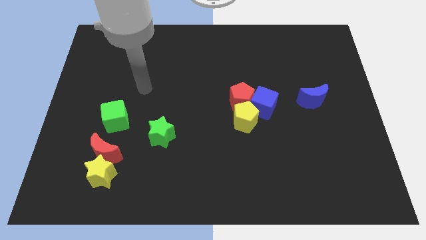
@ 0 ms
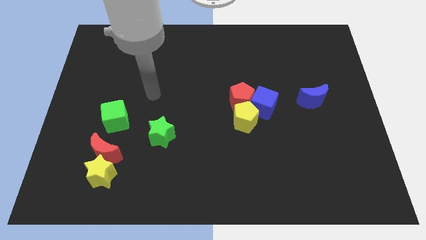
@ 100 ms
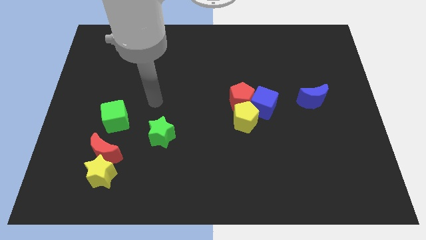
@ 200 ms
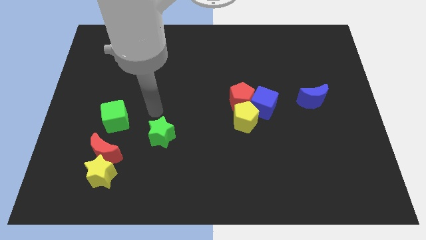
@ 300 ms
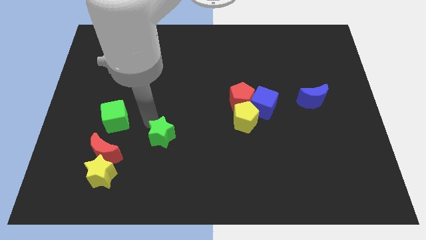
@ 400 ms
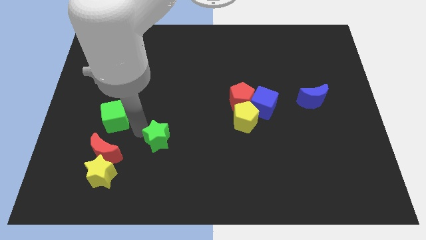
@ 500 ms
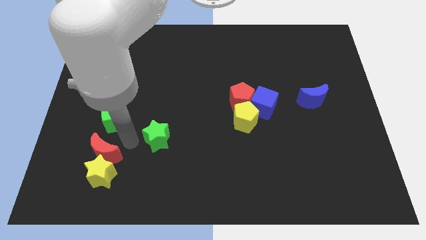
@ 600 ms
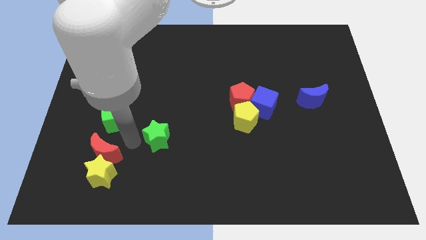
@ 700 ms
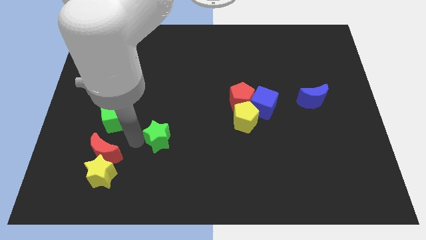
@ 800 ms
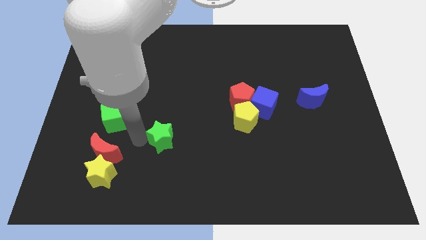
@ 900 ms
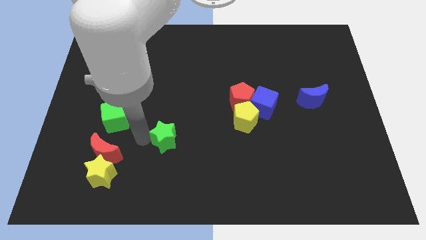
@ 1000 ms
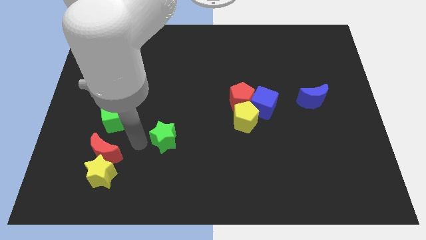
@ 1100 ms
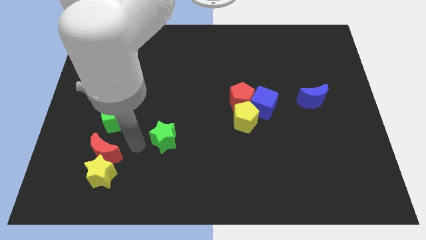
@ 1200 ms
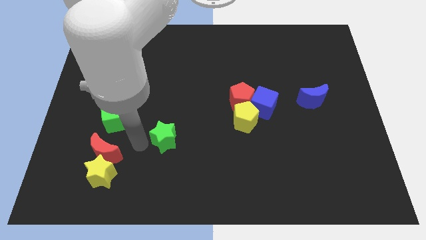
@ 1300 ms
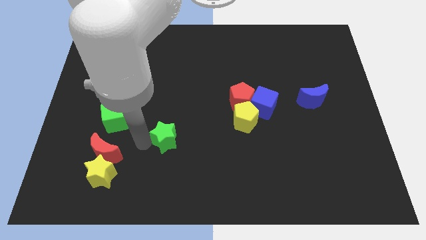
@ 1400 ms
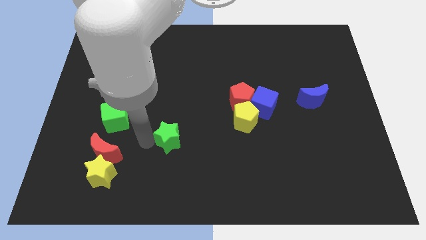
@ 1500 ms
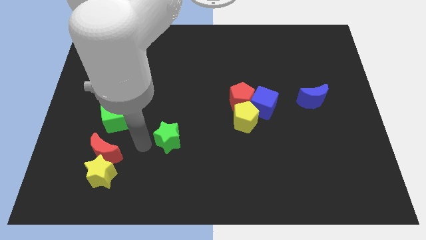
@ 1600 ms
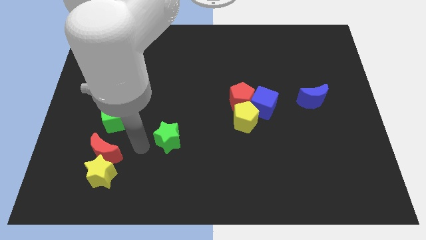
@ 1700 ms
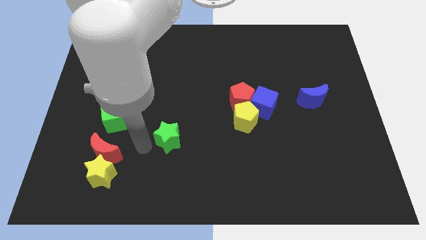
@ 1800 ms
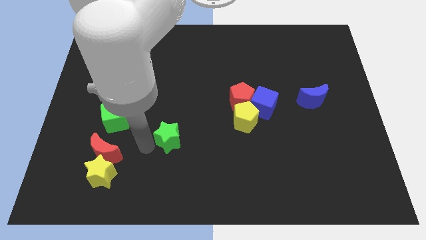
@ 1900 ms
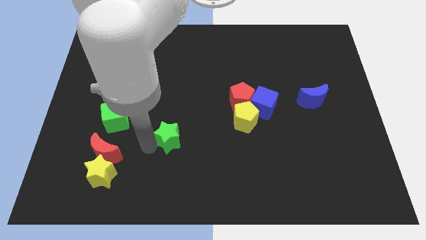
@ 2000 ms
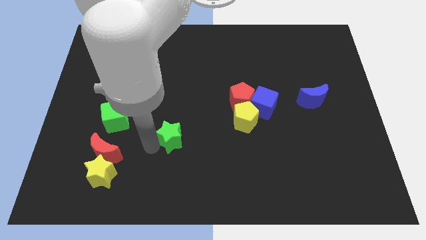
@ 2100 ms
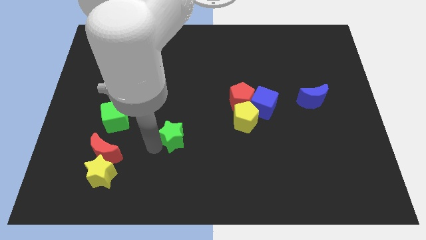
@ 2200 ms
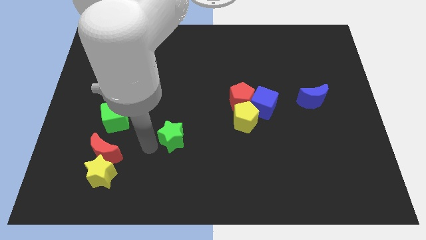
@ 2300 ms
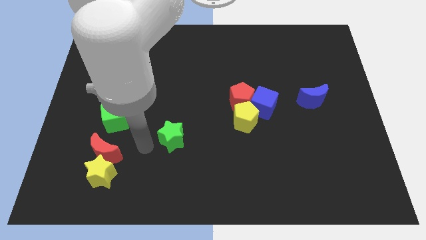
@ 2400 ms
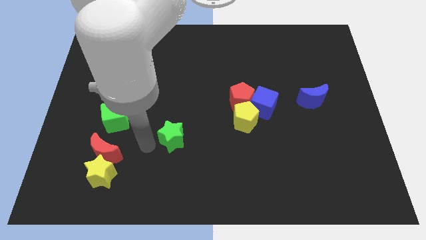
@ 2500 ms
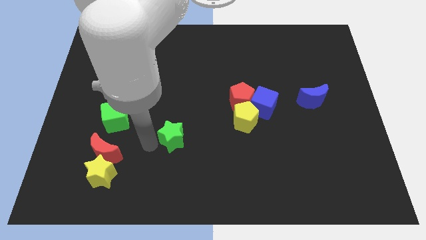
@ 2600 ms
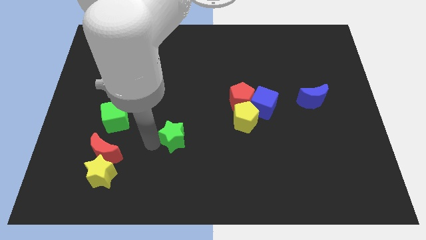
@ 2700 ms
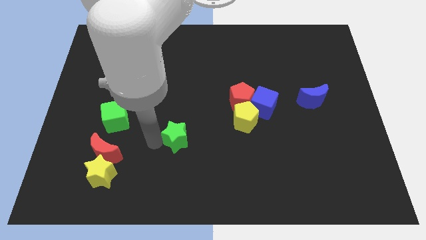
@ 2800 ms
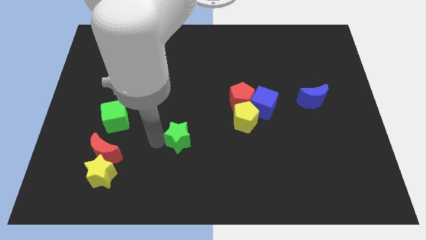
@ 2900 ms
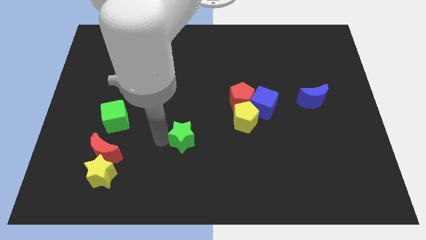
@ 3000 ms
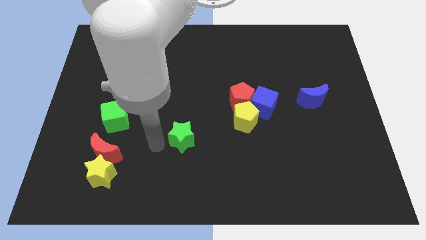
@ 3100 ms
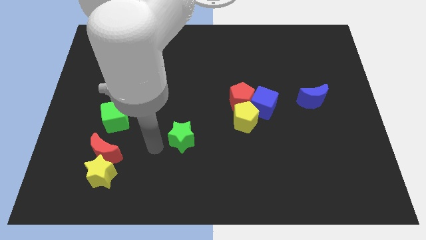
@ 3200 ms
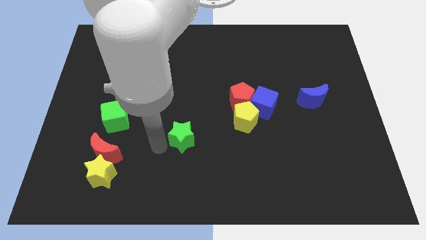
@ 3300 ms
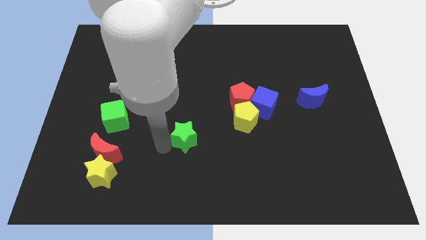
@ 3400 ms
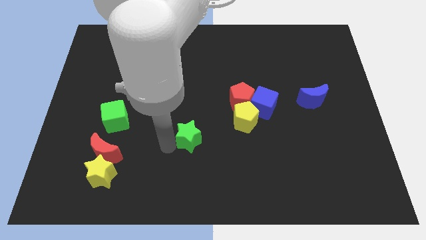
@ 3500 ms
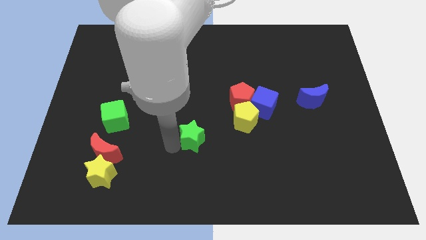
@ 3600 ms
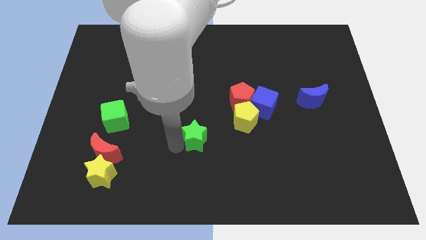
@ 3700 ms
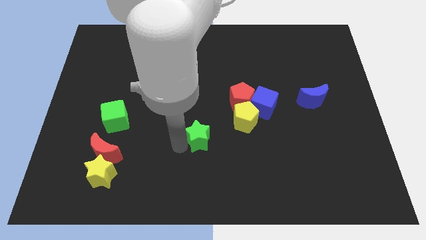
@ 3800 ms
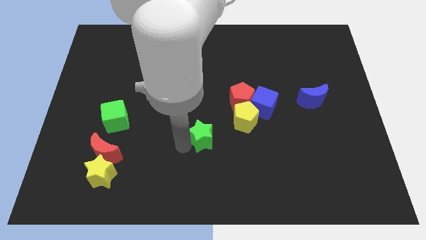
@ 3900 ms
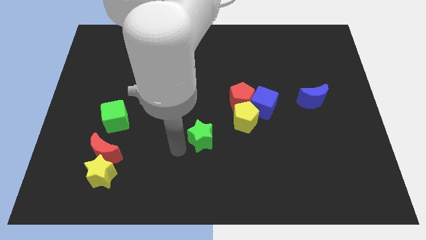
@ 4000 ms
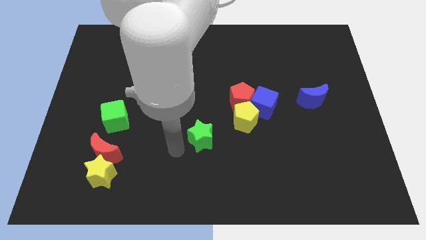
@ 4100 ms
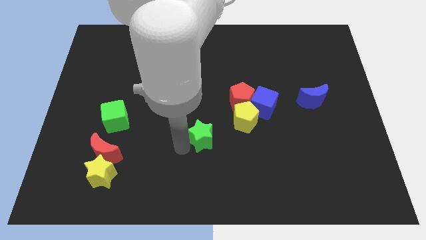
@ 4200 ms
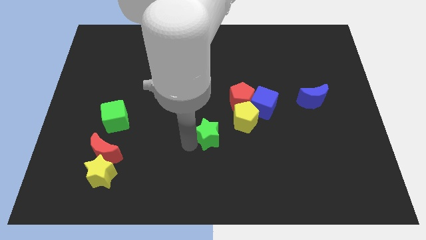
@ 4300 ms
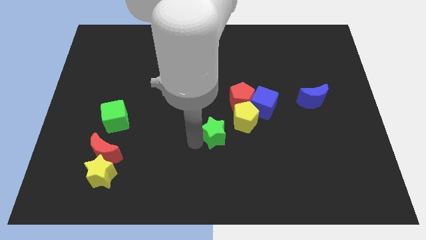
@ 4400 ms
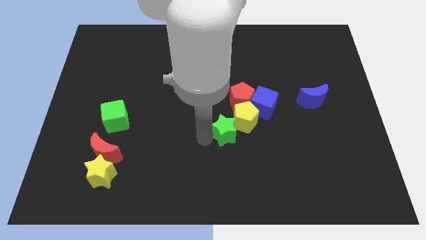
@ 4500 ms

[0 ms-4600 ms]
move the green star towards the yellow pentagon

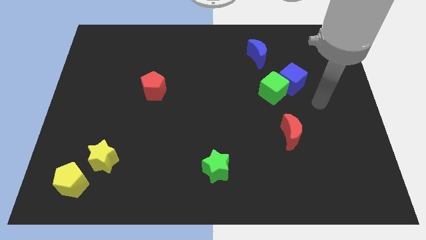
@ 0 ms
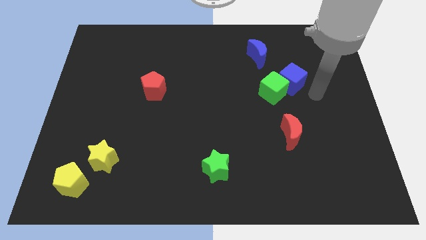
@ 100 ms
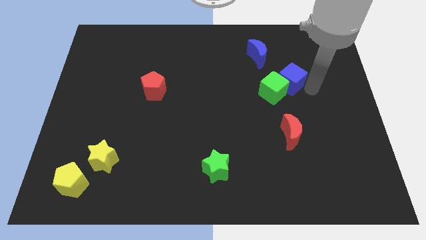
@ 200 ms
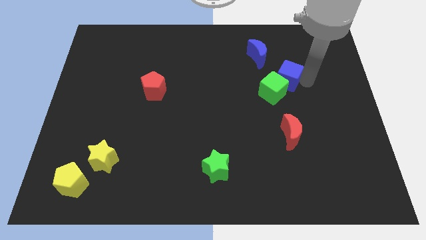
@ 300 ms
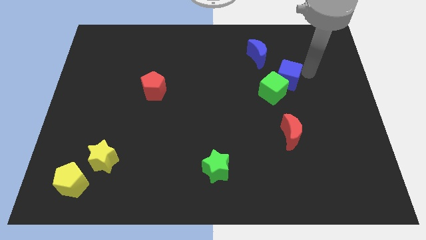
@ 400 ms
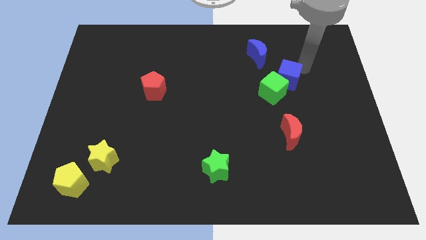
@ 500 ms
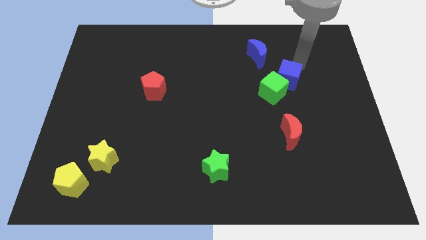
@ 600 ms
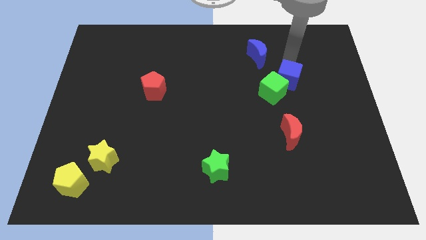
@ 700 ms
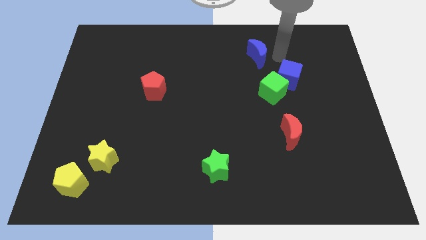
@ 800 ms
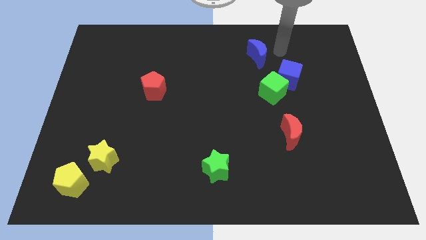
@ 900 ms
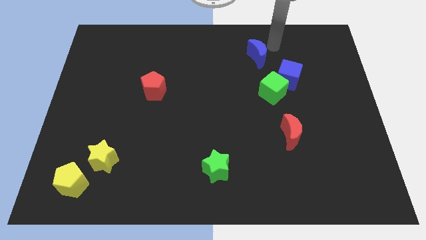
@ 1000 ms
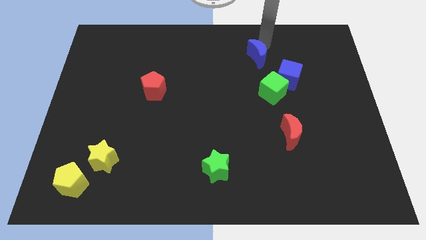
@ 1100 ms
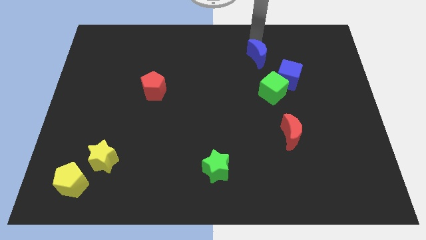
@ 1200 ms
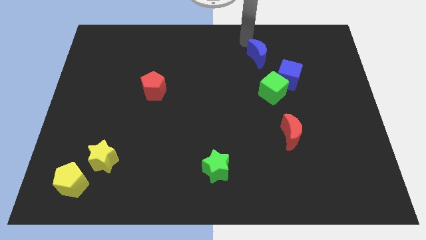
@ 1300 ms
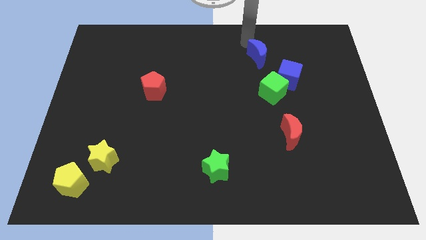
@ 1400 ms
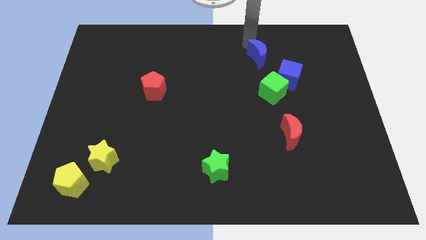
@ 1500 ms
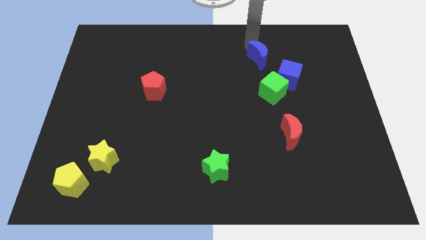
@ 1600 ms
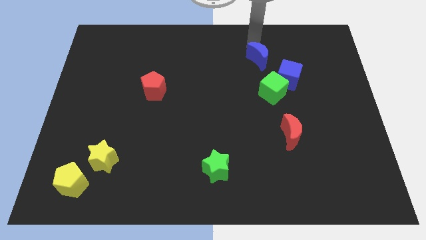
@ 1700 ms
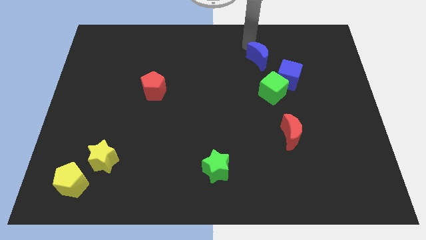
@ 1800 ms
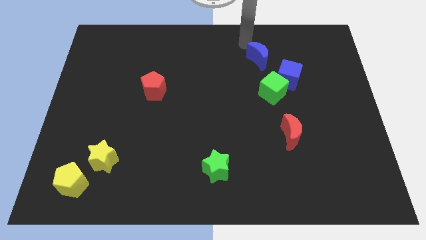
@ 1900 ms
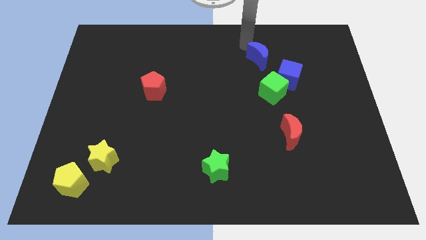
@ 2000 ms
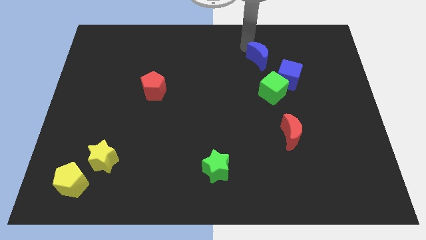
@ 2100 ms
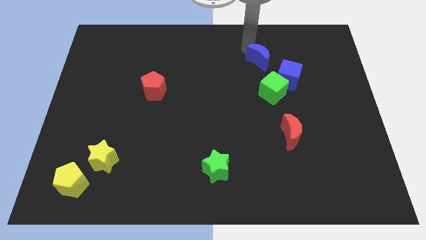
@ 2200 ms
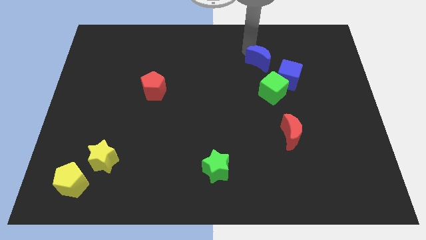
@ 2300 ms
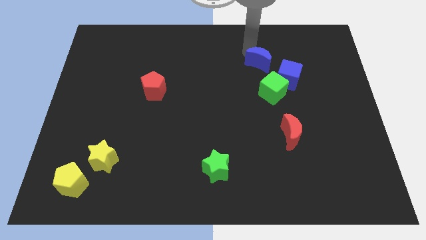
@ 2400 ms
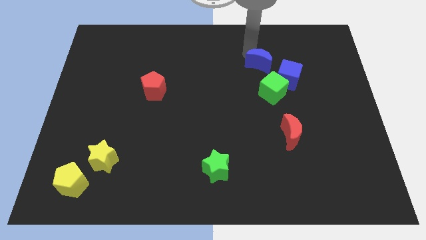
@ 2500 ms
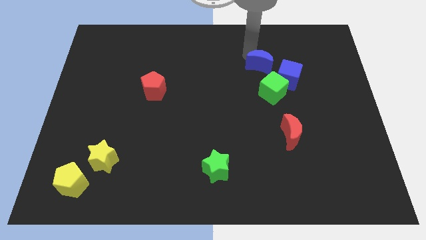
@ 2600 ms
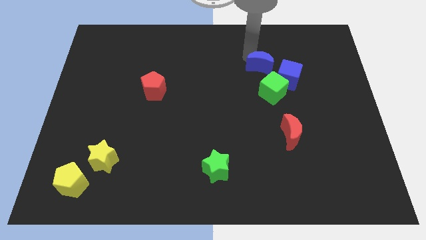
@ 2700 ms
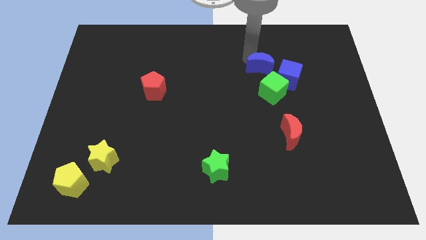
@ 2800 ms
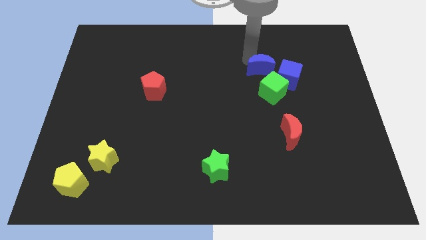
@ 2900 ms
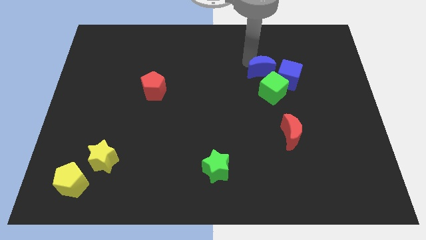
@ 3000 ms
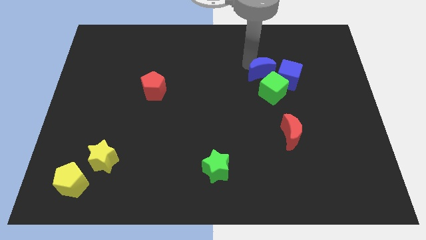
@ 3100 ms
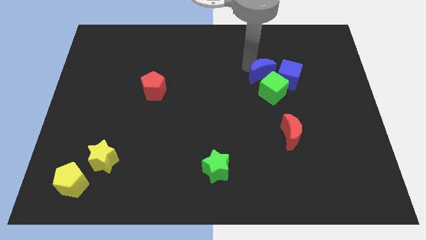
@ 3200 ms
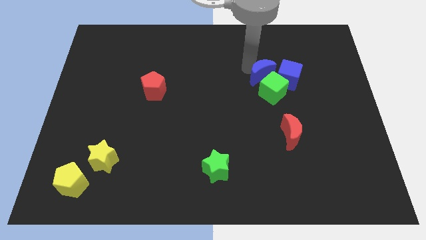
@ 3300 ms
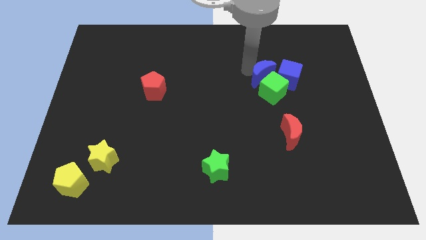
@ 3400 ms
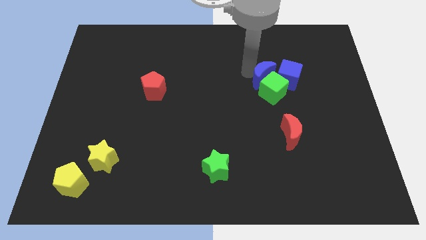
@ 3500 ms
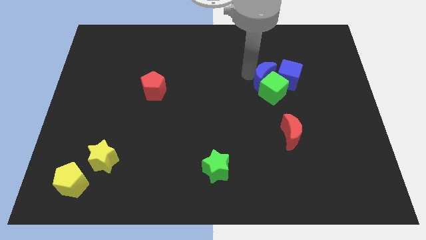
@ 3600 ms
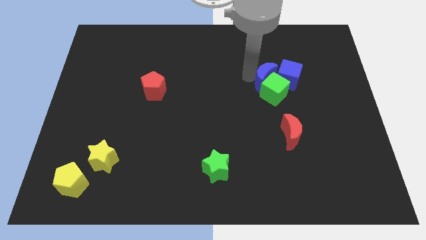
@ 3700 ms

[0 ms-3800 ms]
put the blue moon close to the blue cube
